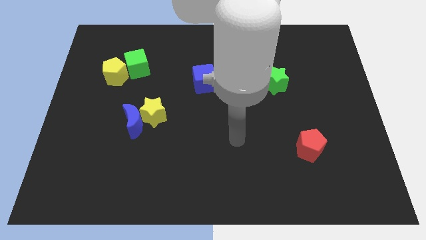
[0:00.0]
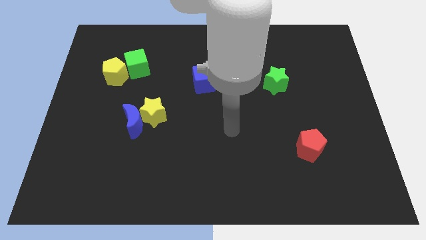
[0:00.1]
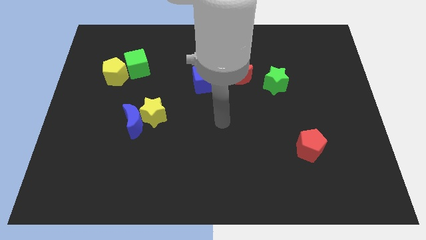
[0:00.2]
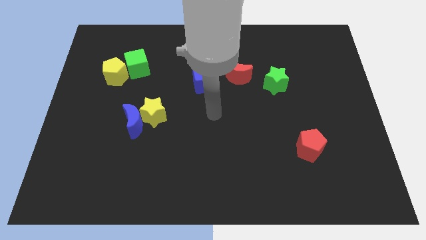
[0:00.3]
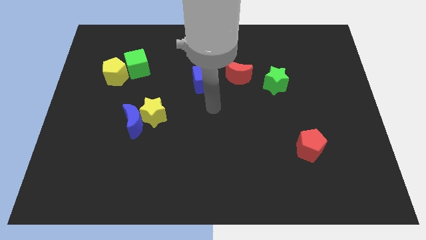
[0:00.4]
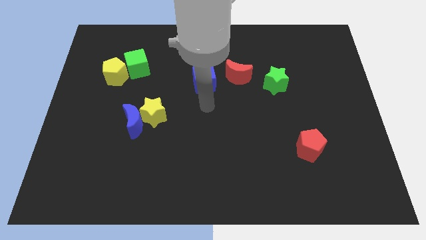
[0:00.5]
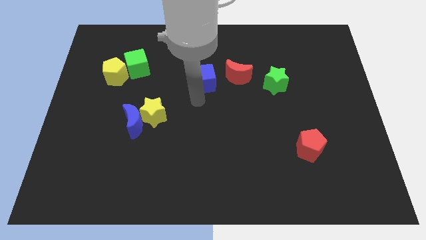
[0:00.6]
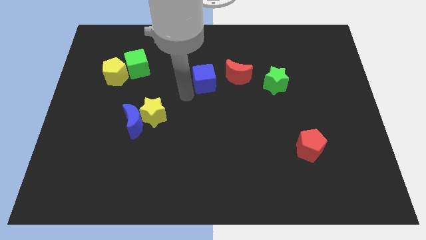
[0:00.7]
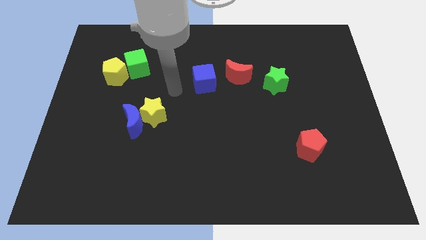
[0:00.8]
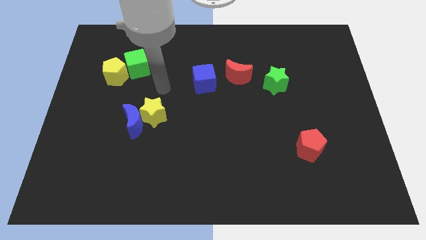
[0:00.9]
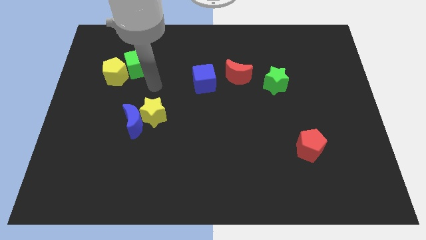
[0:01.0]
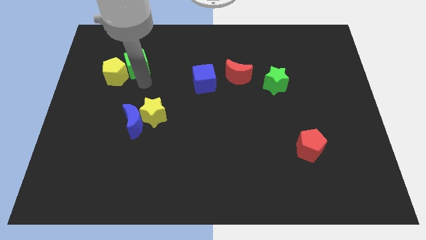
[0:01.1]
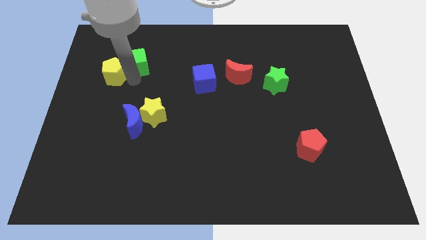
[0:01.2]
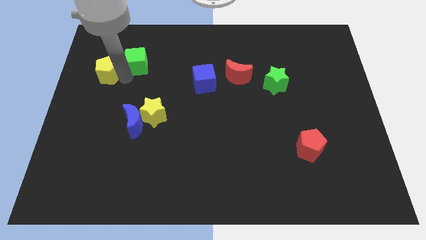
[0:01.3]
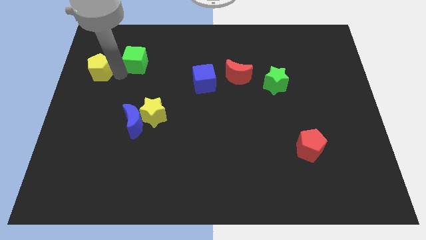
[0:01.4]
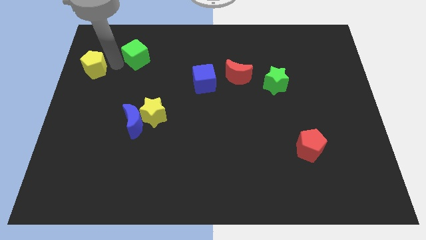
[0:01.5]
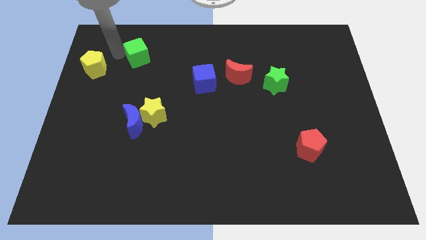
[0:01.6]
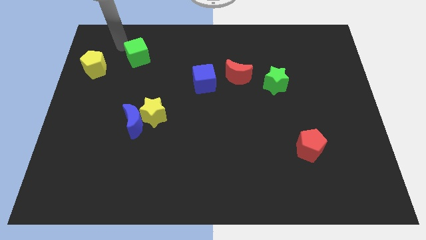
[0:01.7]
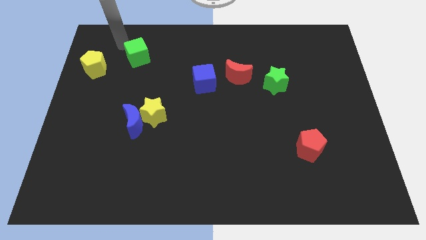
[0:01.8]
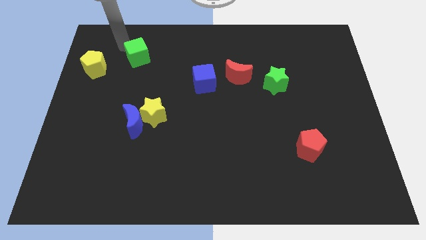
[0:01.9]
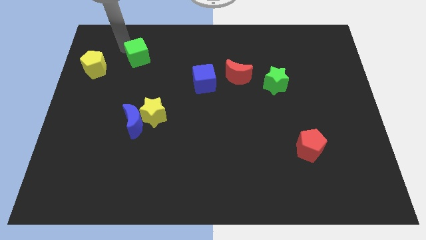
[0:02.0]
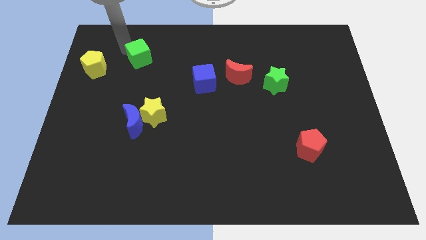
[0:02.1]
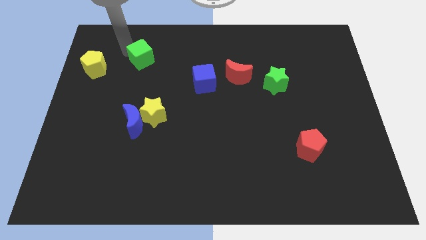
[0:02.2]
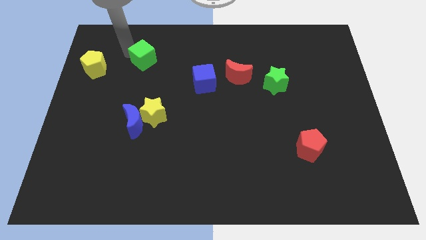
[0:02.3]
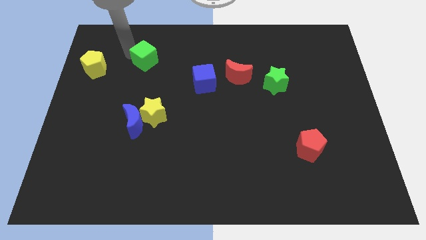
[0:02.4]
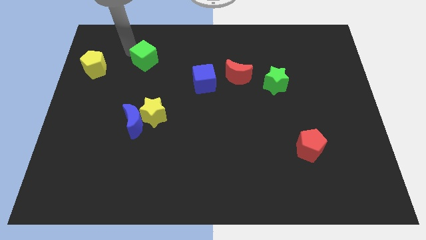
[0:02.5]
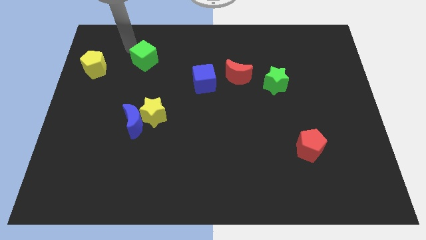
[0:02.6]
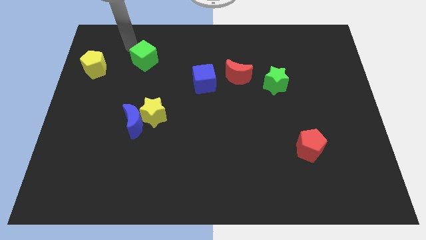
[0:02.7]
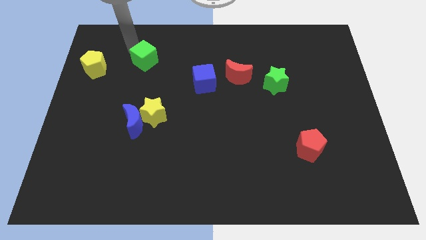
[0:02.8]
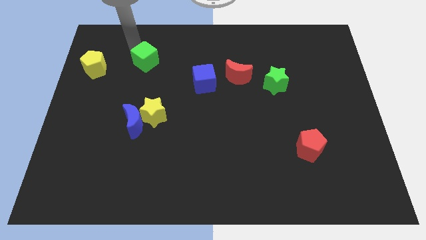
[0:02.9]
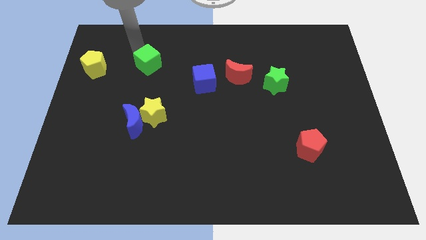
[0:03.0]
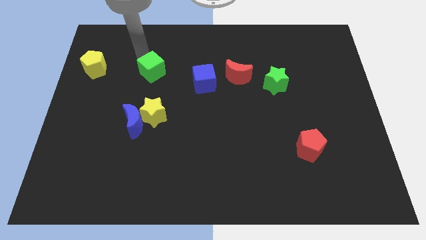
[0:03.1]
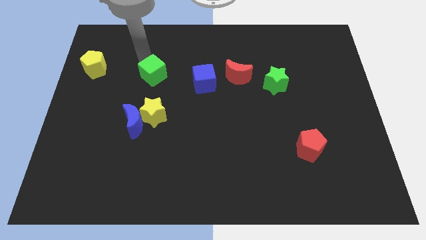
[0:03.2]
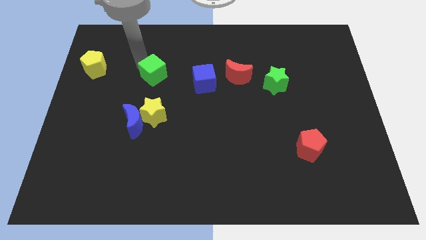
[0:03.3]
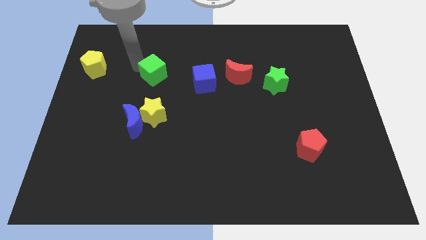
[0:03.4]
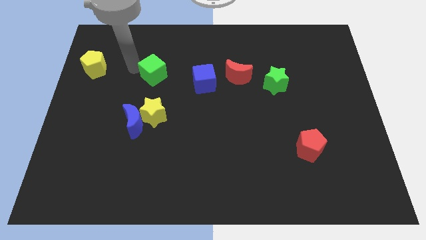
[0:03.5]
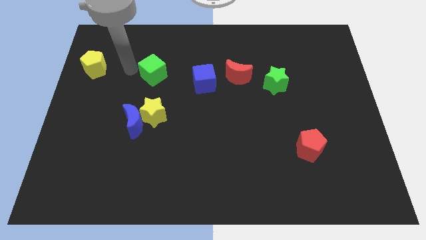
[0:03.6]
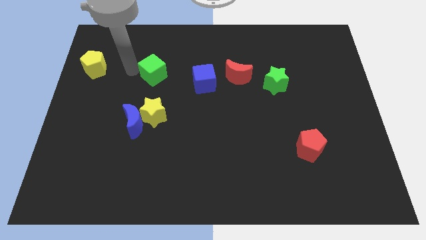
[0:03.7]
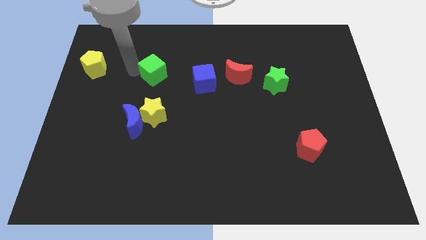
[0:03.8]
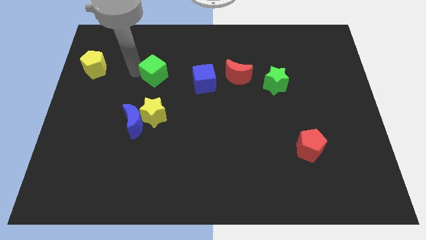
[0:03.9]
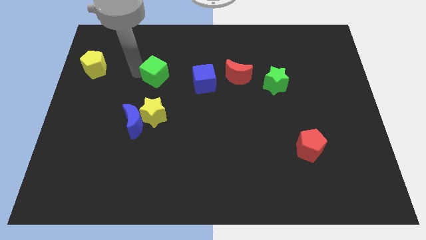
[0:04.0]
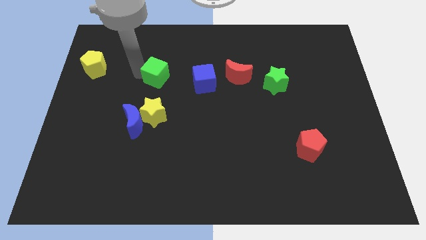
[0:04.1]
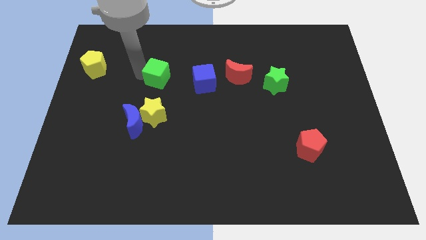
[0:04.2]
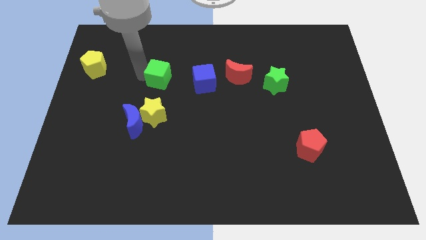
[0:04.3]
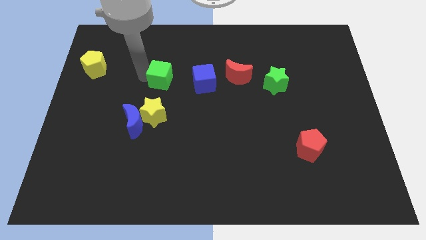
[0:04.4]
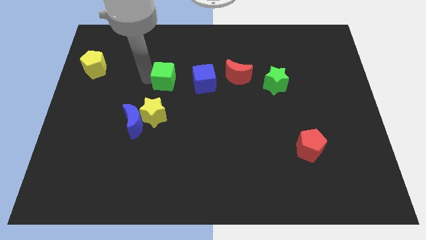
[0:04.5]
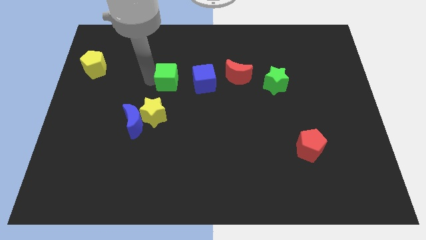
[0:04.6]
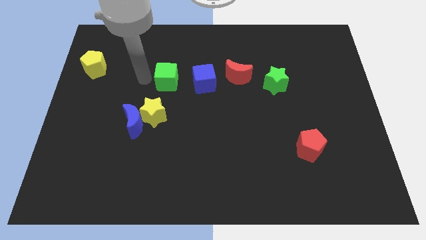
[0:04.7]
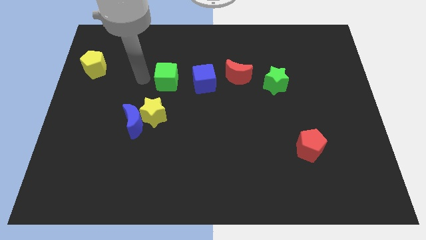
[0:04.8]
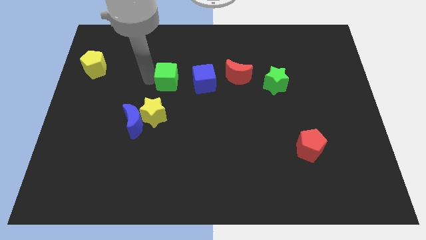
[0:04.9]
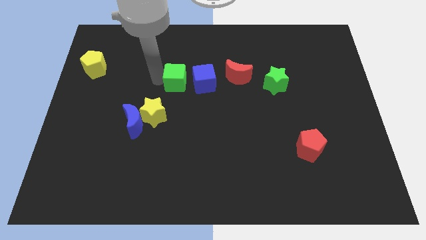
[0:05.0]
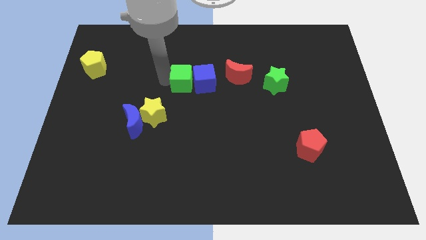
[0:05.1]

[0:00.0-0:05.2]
slide the green cube towards the blue cube

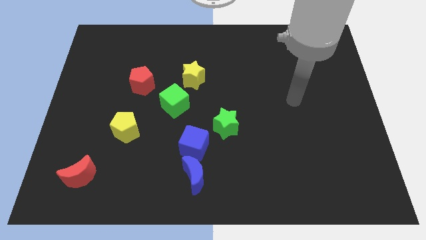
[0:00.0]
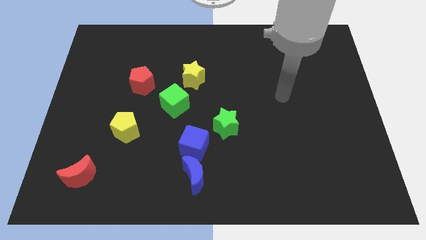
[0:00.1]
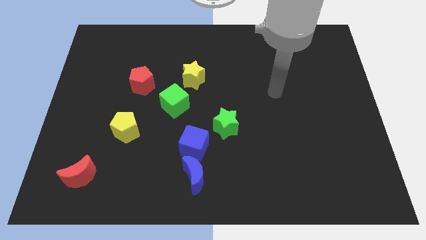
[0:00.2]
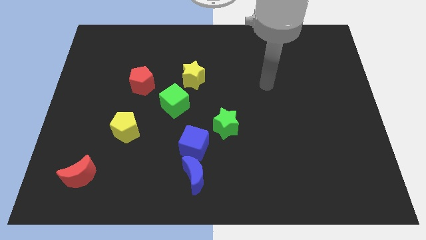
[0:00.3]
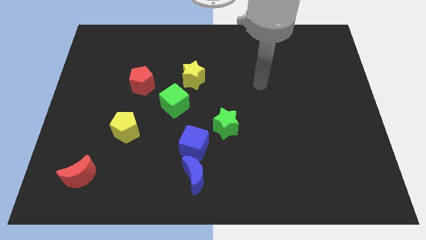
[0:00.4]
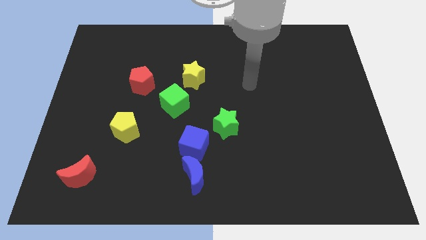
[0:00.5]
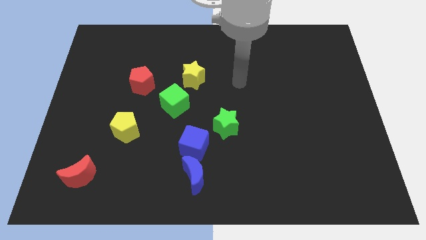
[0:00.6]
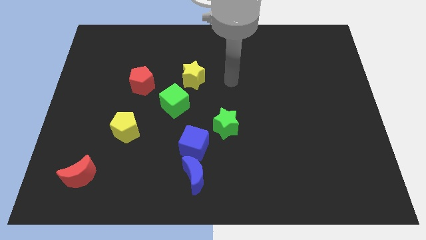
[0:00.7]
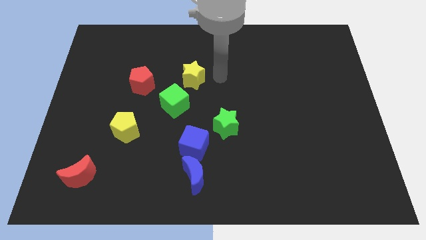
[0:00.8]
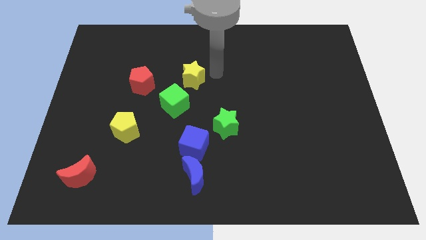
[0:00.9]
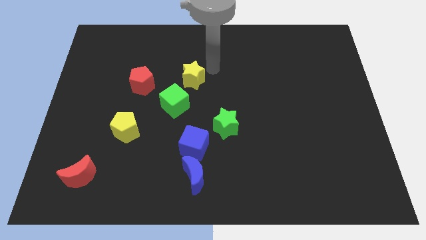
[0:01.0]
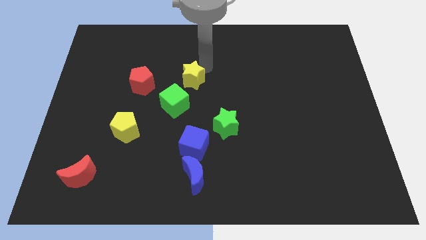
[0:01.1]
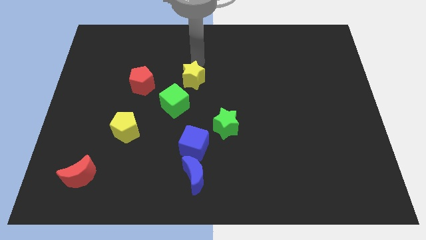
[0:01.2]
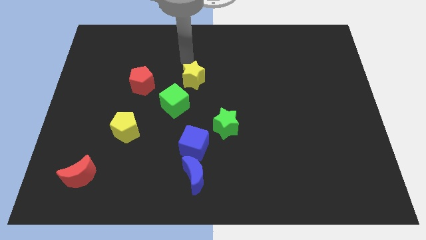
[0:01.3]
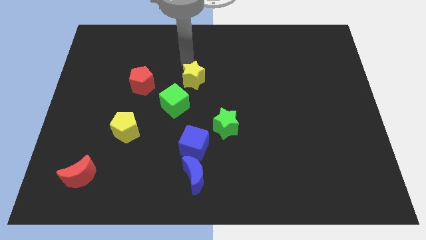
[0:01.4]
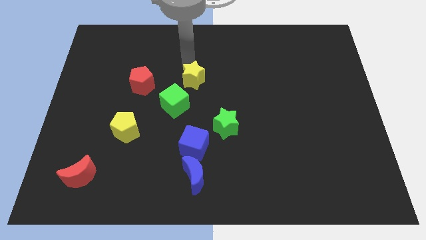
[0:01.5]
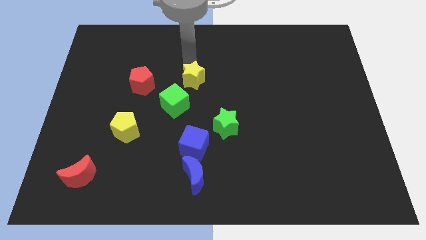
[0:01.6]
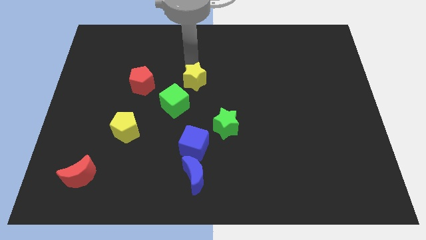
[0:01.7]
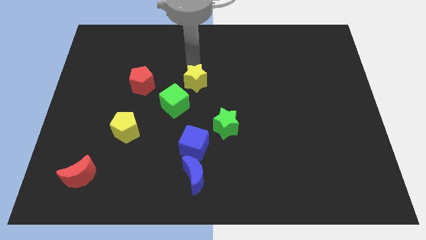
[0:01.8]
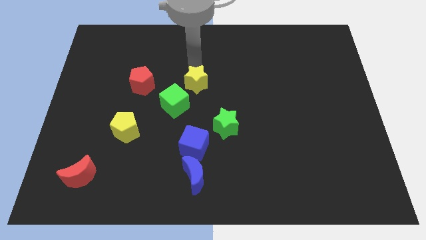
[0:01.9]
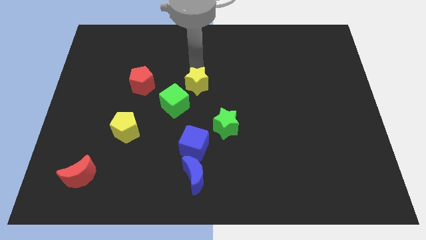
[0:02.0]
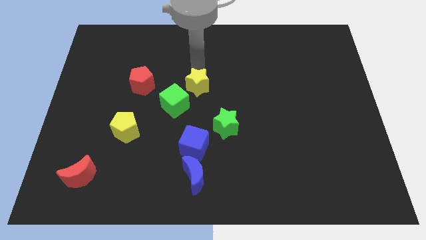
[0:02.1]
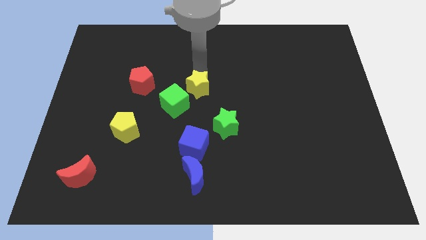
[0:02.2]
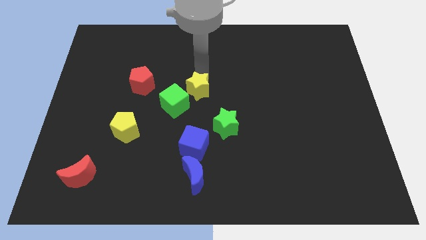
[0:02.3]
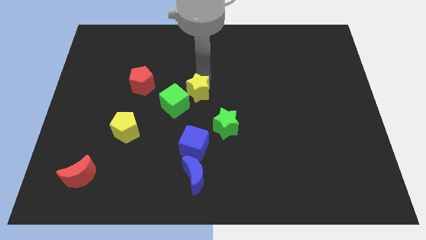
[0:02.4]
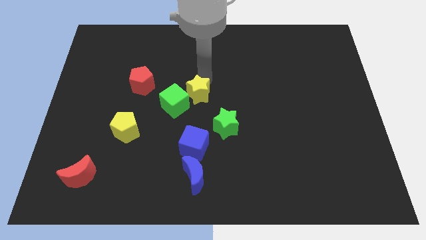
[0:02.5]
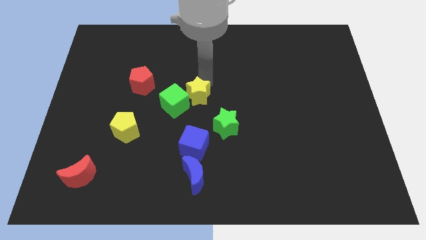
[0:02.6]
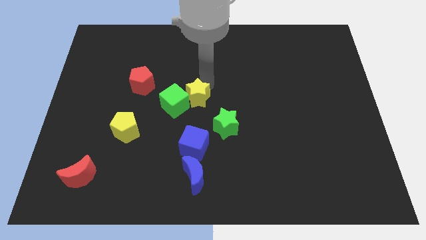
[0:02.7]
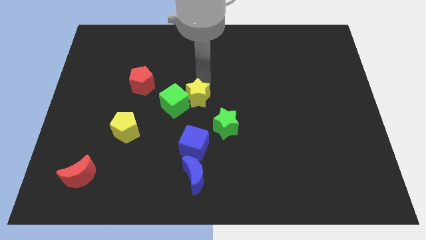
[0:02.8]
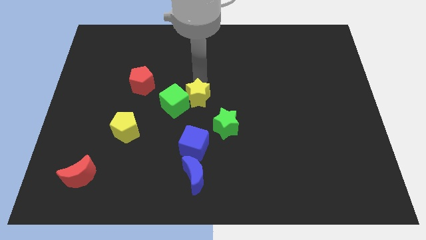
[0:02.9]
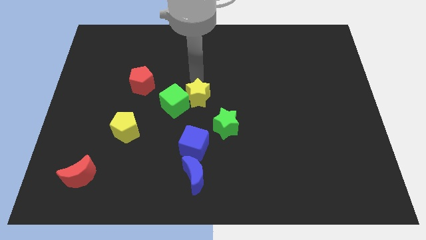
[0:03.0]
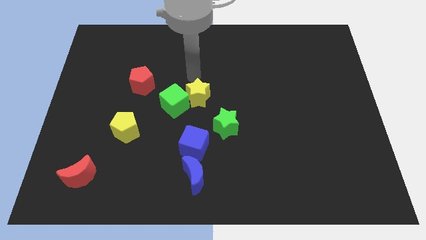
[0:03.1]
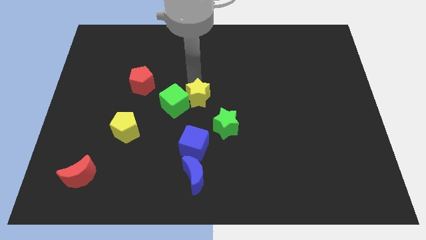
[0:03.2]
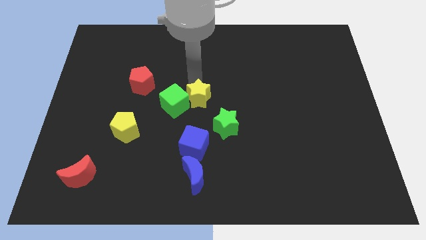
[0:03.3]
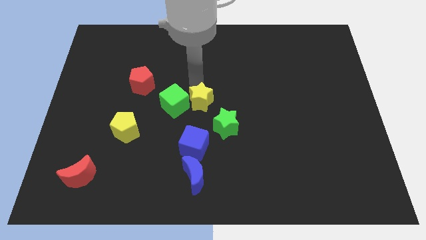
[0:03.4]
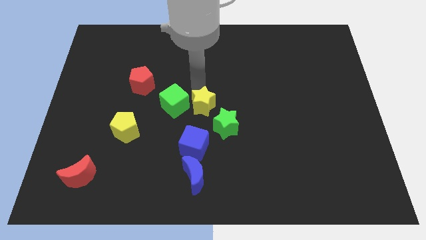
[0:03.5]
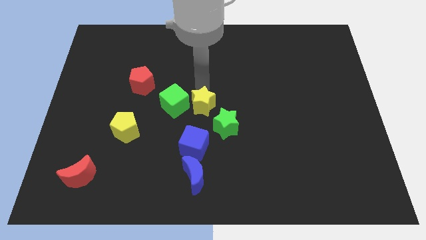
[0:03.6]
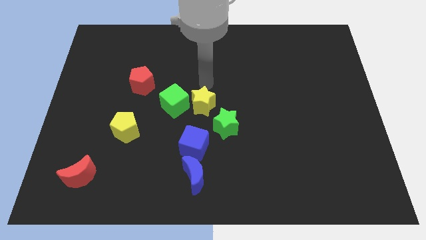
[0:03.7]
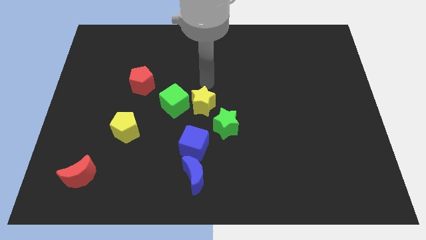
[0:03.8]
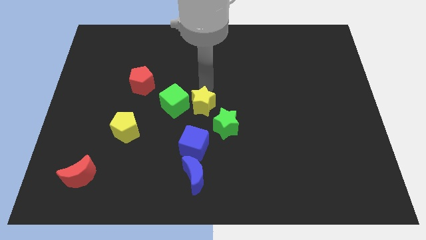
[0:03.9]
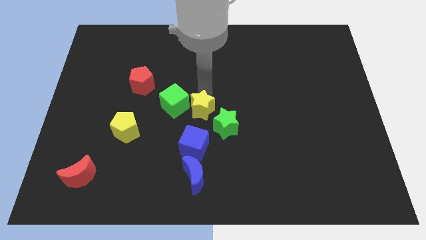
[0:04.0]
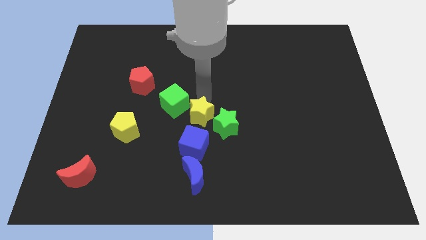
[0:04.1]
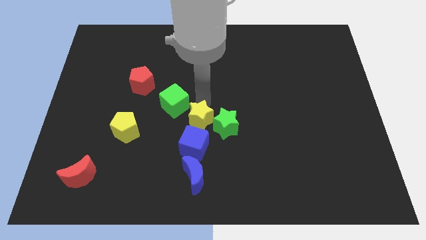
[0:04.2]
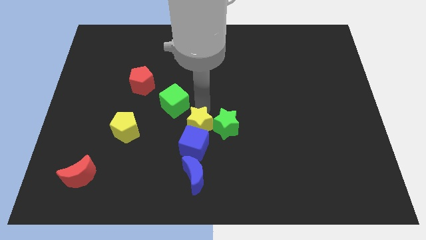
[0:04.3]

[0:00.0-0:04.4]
put the yellow star towards the blue cube
